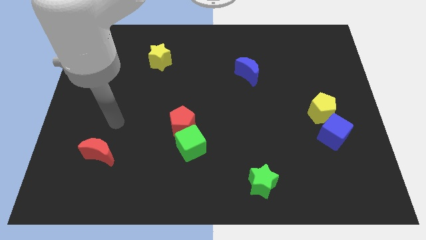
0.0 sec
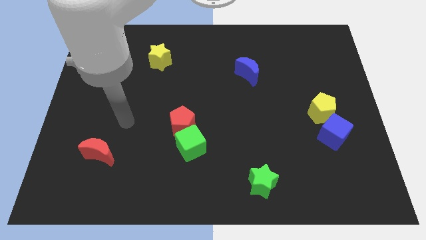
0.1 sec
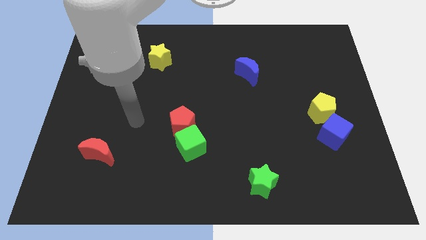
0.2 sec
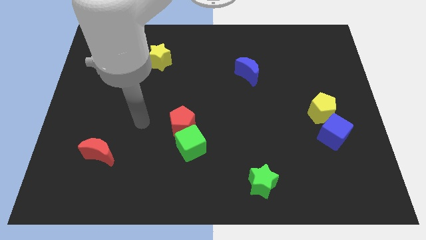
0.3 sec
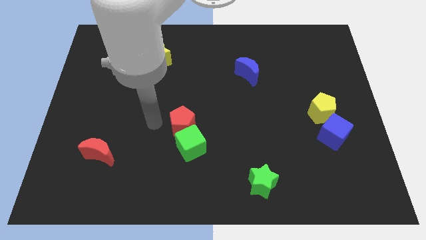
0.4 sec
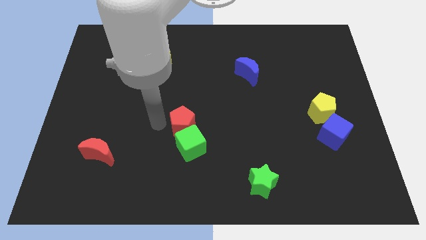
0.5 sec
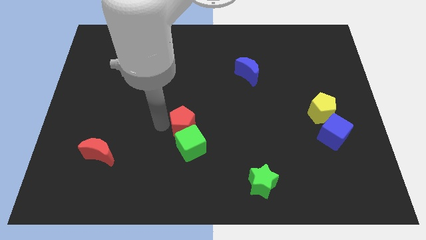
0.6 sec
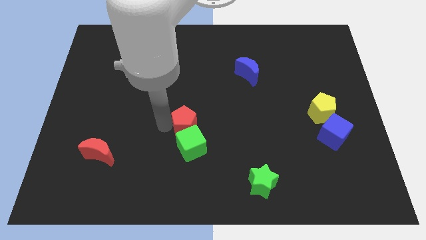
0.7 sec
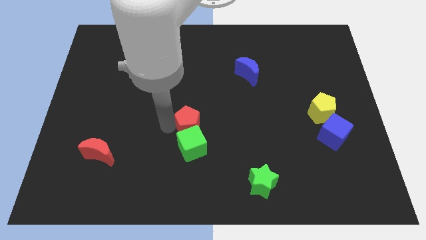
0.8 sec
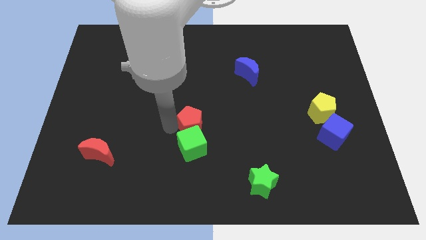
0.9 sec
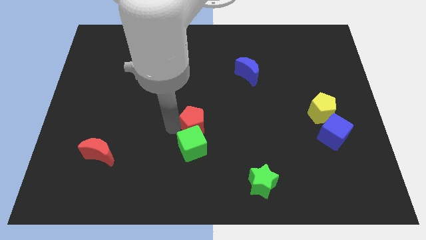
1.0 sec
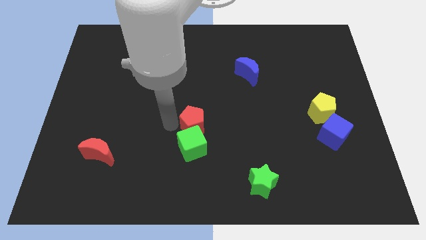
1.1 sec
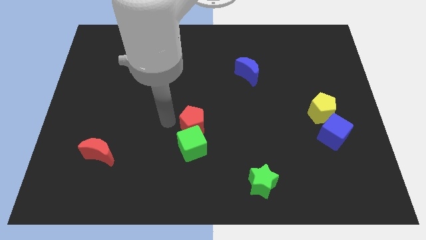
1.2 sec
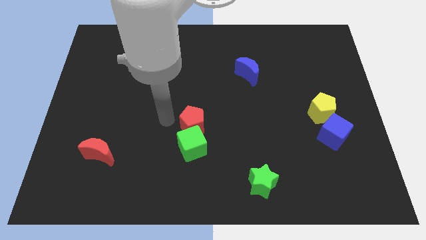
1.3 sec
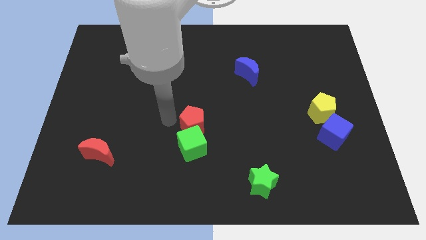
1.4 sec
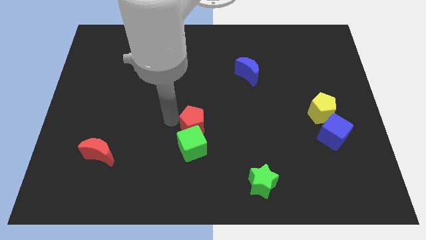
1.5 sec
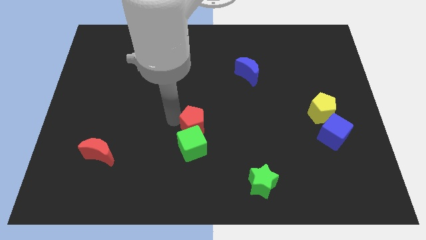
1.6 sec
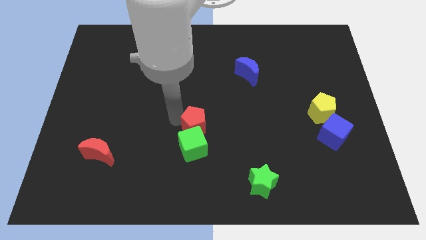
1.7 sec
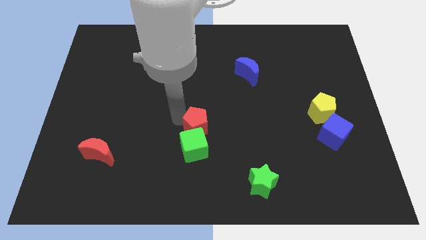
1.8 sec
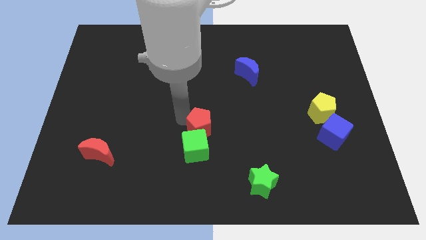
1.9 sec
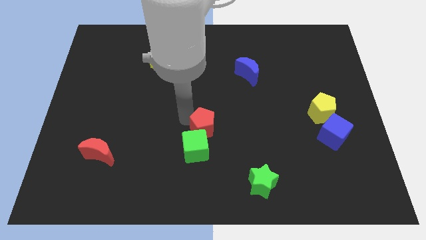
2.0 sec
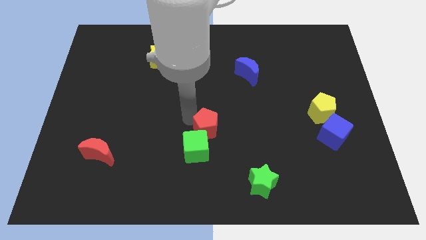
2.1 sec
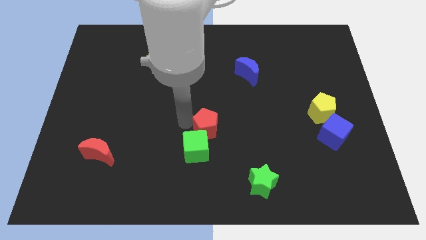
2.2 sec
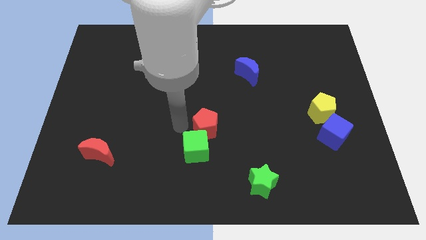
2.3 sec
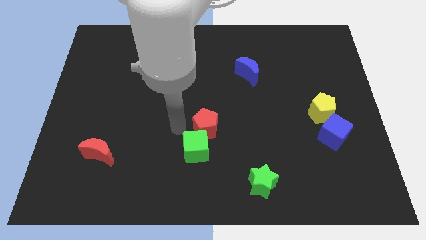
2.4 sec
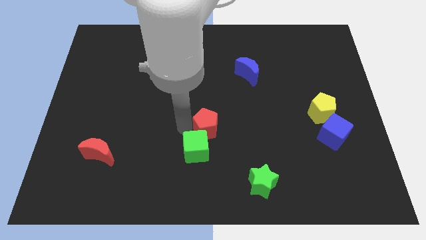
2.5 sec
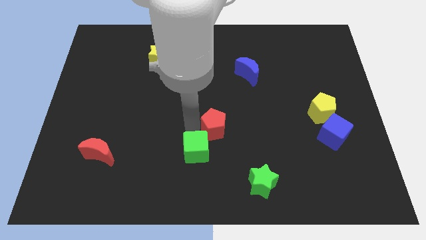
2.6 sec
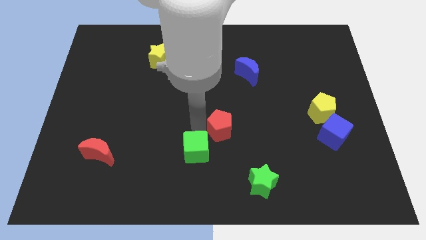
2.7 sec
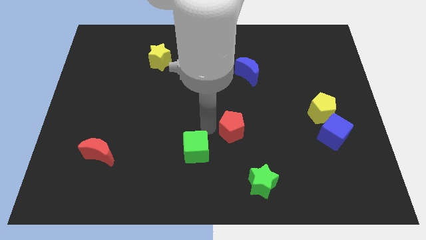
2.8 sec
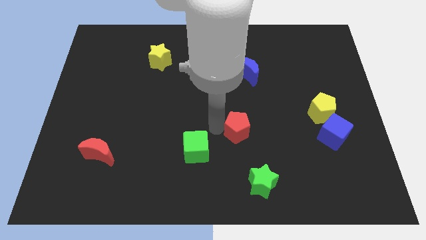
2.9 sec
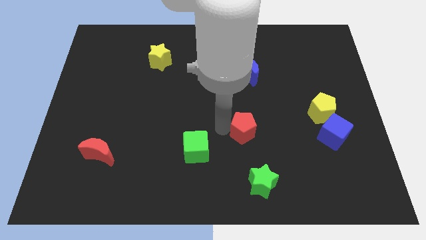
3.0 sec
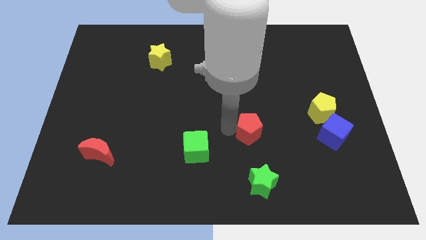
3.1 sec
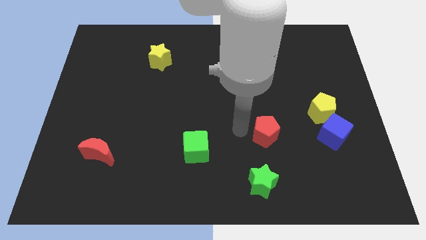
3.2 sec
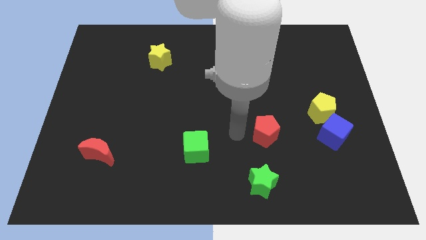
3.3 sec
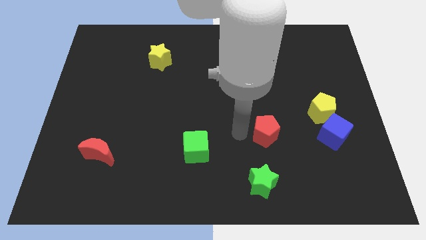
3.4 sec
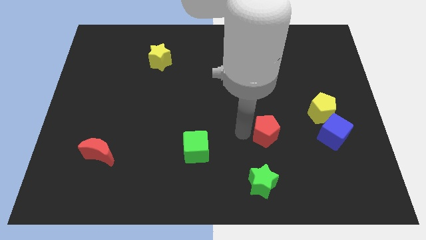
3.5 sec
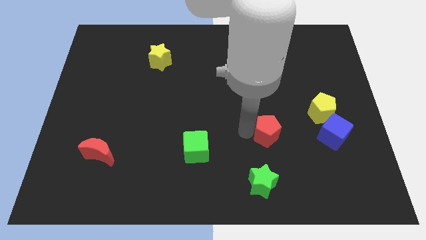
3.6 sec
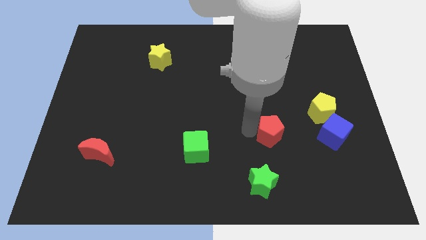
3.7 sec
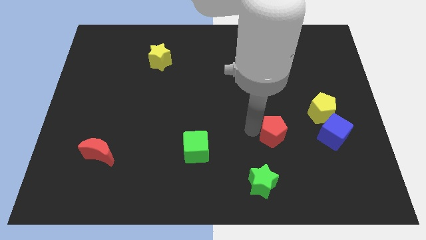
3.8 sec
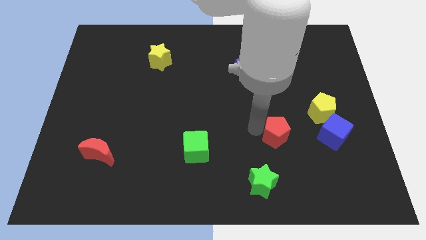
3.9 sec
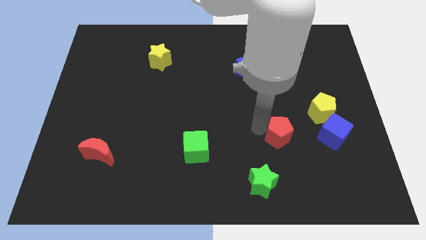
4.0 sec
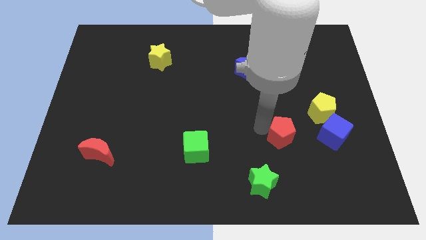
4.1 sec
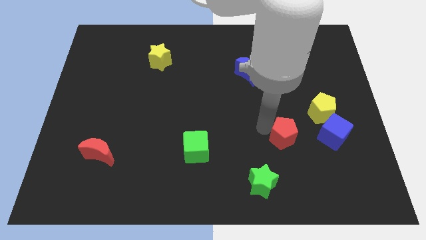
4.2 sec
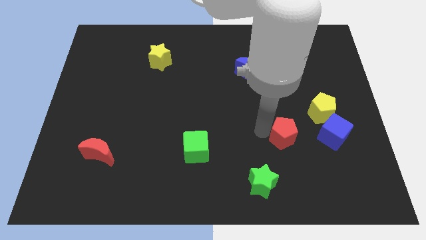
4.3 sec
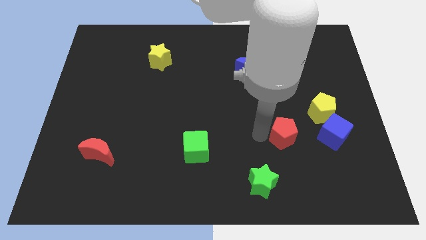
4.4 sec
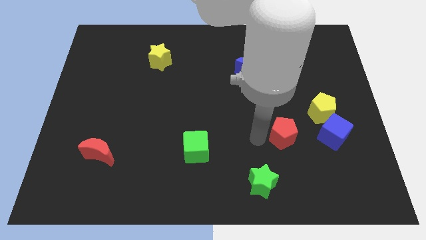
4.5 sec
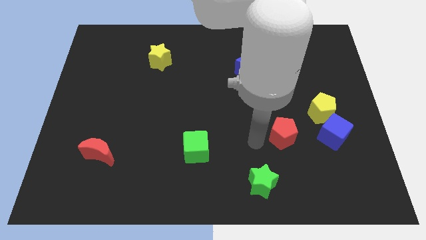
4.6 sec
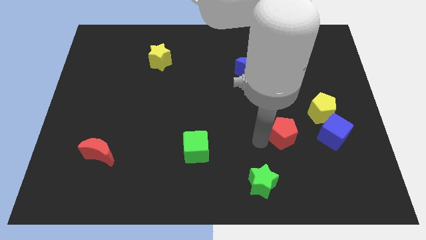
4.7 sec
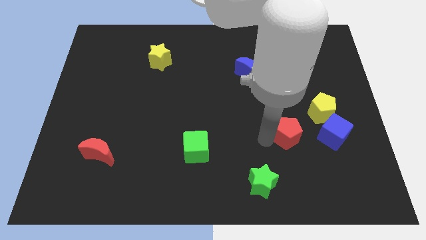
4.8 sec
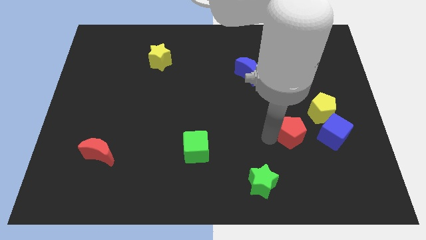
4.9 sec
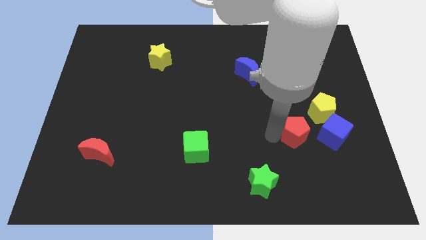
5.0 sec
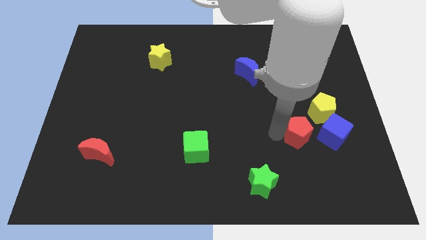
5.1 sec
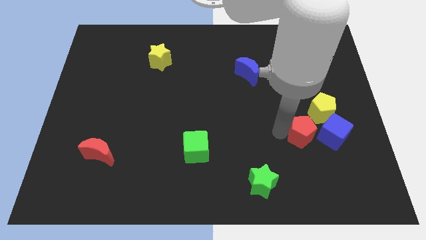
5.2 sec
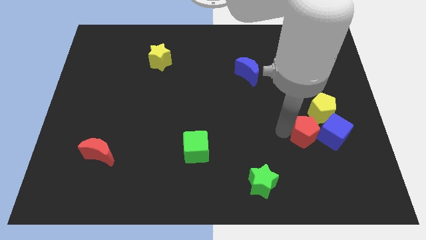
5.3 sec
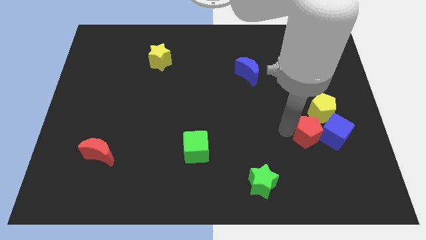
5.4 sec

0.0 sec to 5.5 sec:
move the red pentagon towards the blue cube

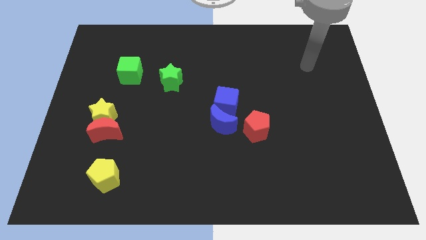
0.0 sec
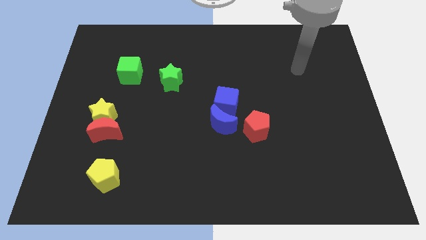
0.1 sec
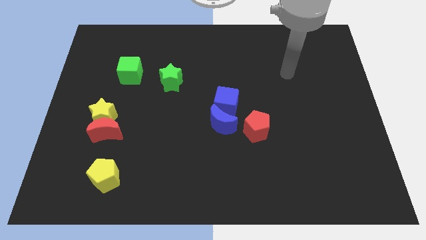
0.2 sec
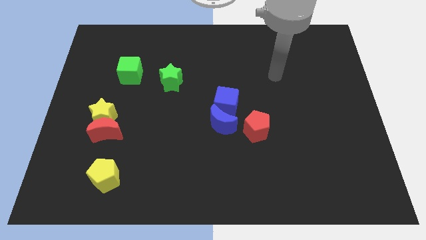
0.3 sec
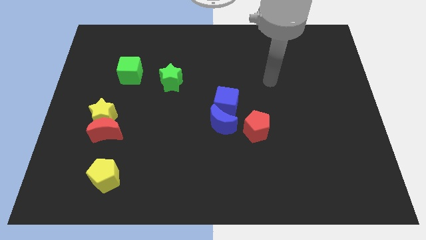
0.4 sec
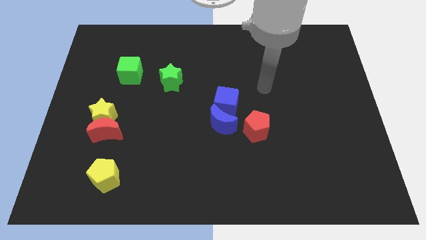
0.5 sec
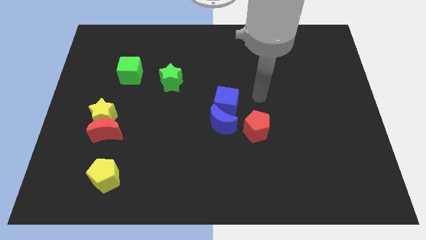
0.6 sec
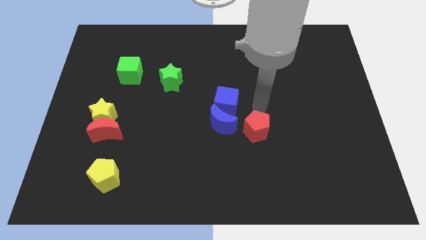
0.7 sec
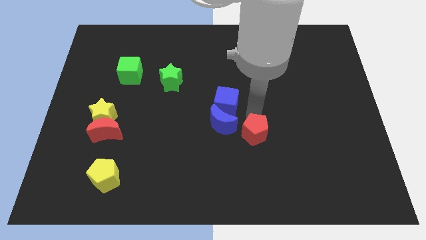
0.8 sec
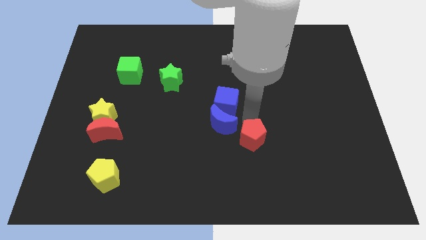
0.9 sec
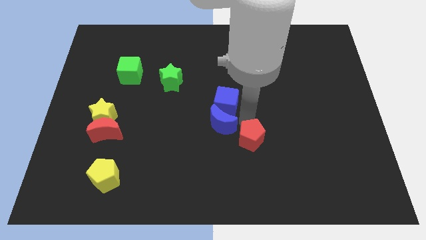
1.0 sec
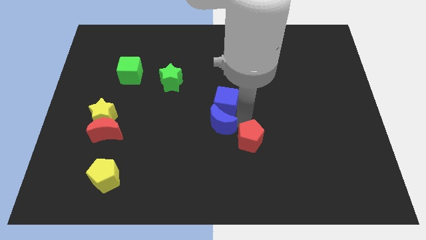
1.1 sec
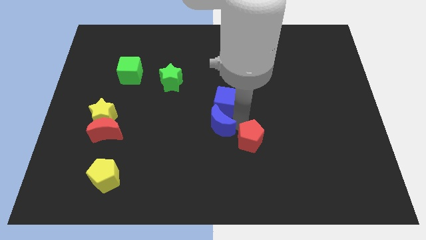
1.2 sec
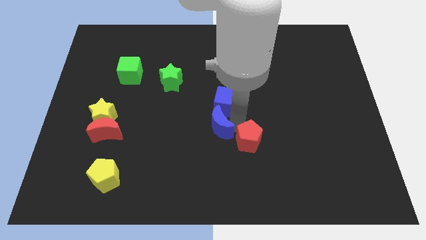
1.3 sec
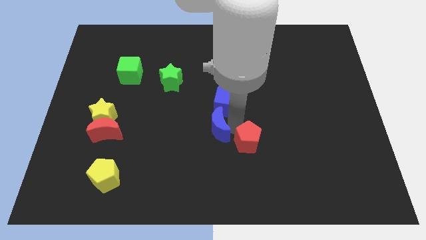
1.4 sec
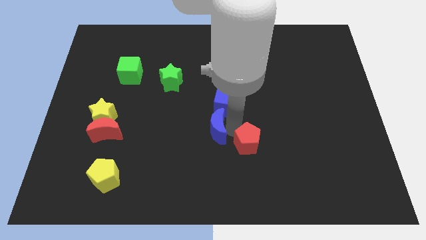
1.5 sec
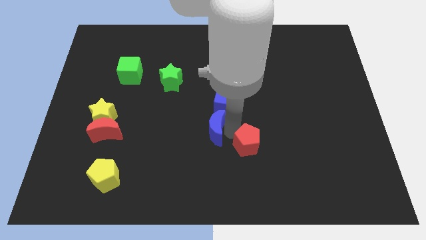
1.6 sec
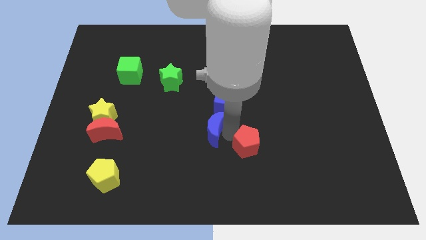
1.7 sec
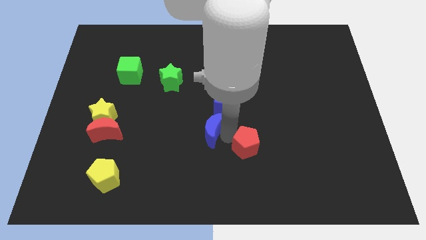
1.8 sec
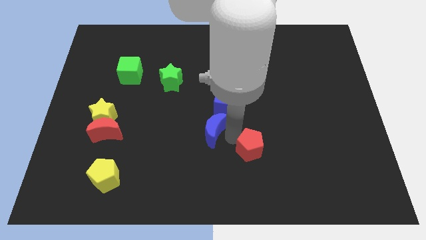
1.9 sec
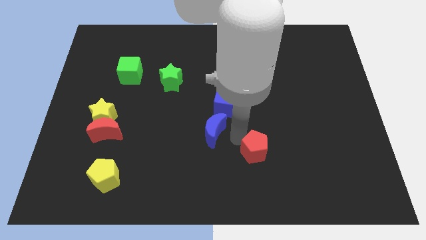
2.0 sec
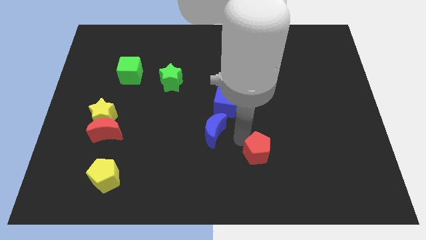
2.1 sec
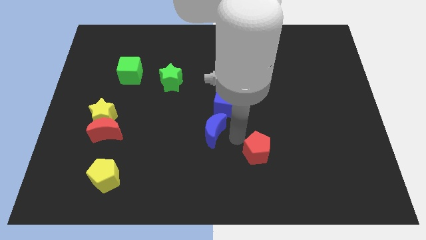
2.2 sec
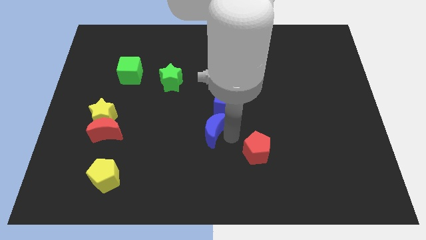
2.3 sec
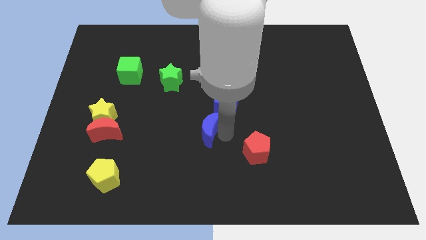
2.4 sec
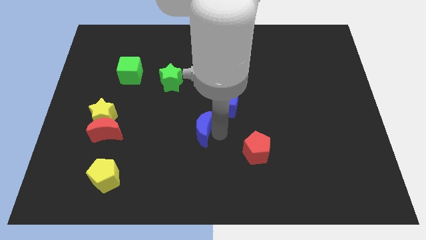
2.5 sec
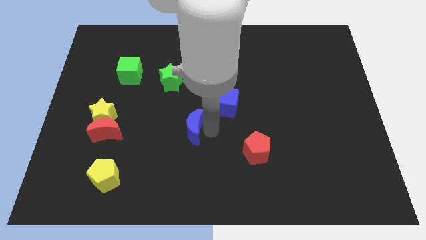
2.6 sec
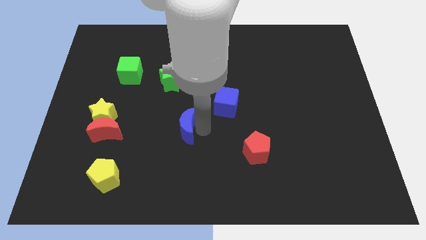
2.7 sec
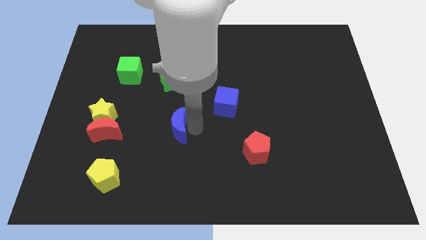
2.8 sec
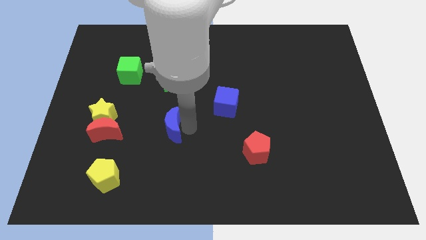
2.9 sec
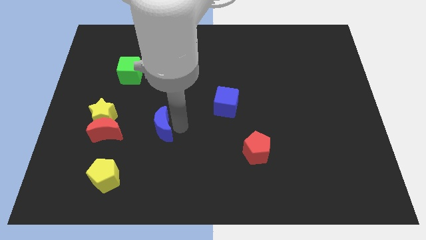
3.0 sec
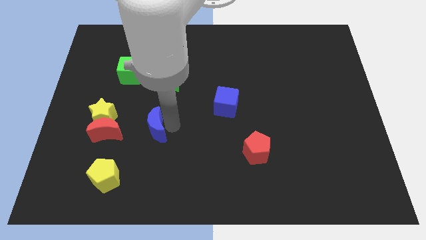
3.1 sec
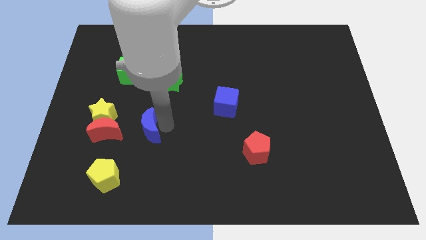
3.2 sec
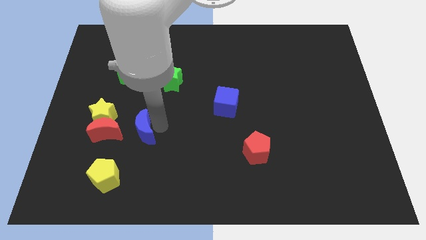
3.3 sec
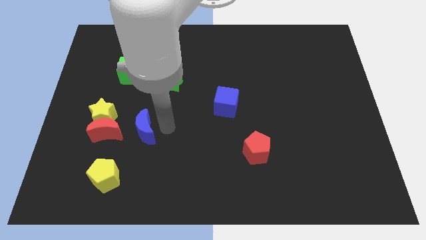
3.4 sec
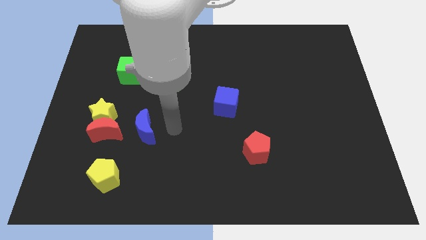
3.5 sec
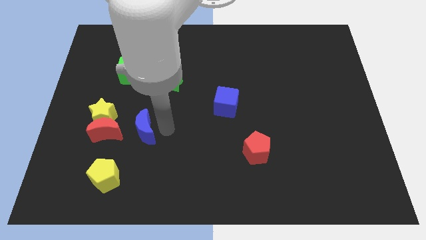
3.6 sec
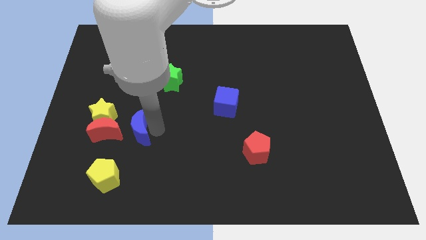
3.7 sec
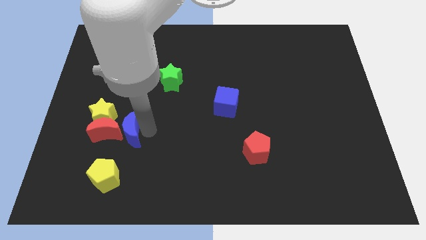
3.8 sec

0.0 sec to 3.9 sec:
put the blue moon to the red moon
